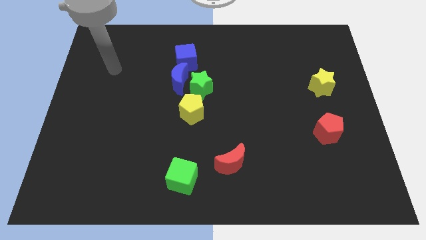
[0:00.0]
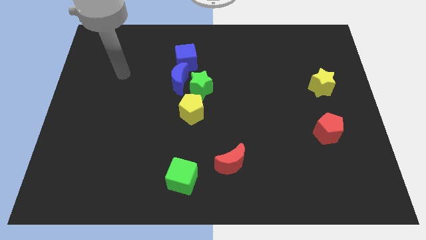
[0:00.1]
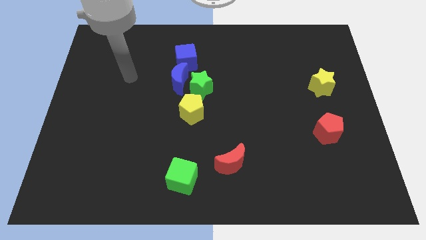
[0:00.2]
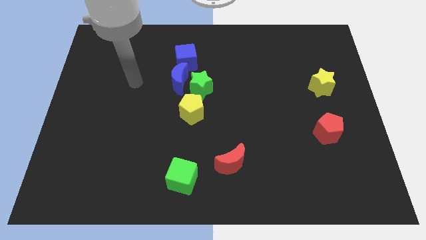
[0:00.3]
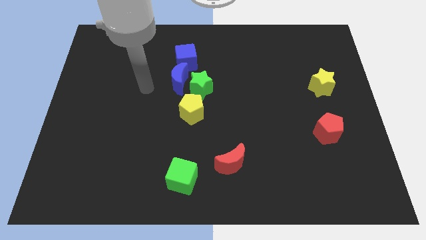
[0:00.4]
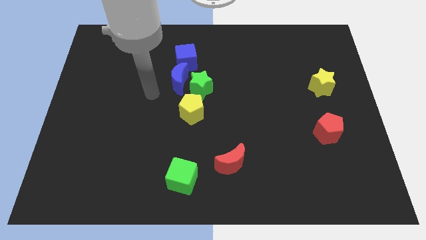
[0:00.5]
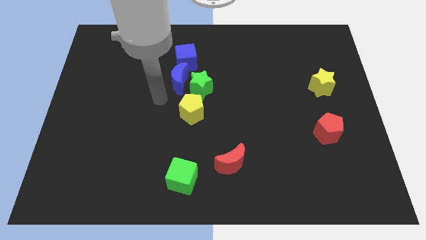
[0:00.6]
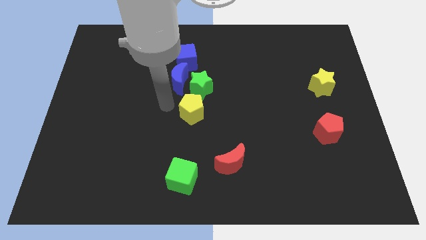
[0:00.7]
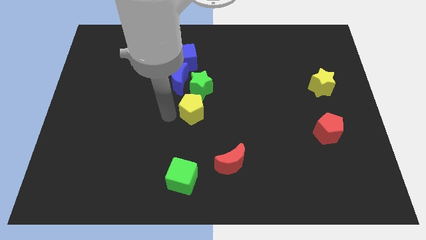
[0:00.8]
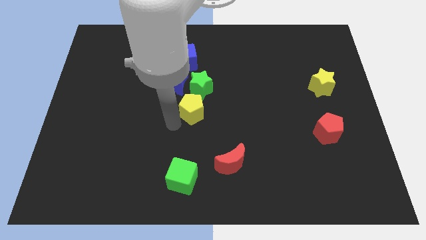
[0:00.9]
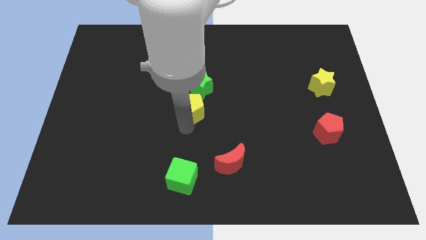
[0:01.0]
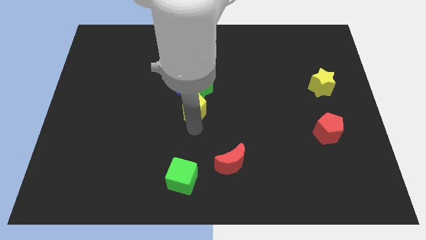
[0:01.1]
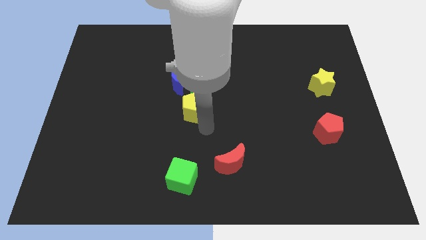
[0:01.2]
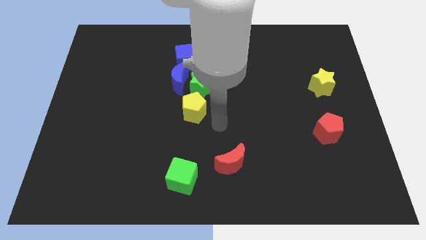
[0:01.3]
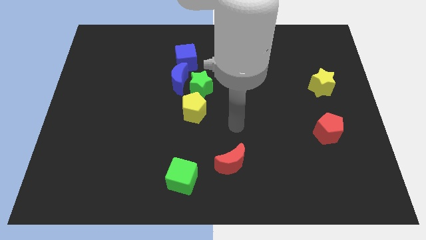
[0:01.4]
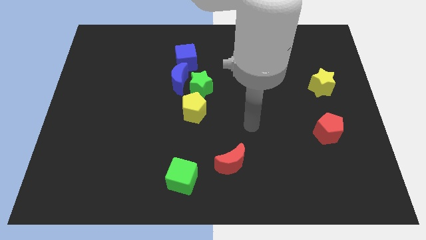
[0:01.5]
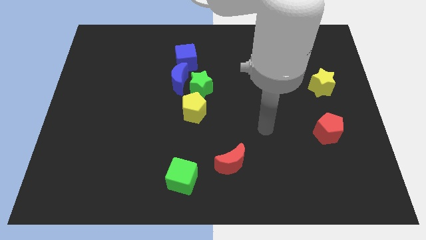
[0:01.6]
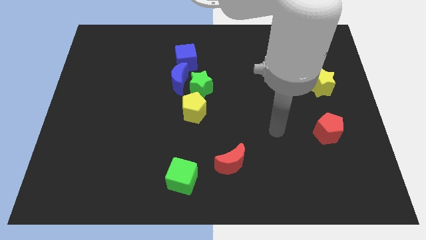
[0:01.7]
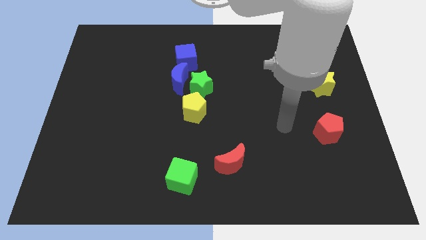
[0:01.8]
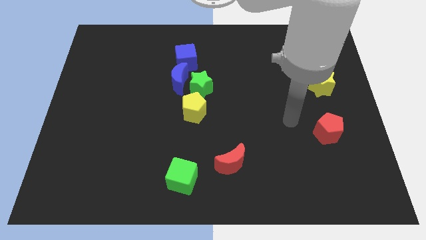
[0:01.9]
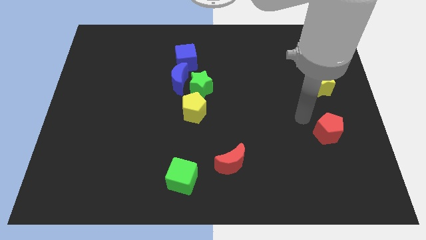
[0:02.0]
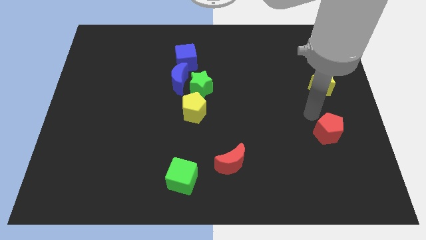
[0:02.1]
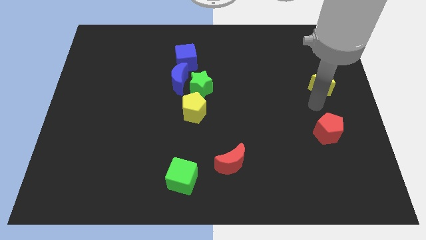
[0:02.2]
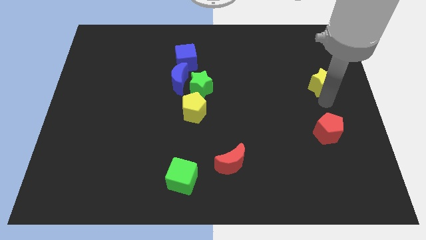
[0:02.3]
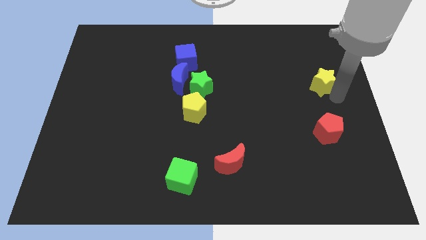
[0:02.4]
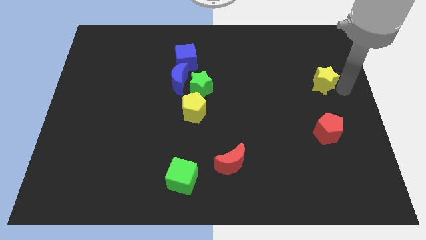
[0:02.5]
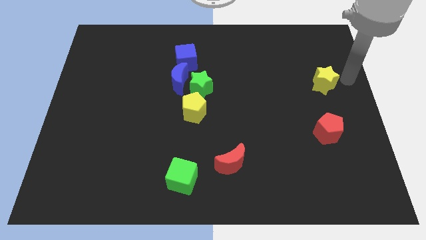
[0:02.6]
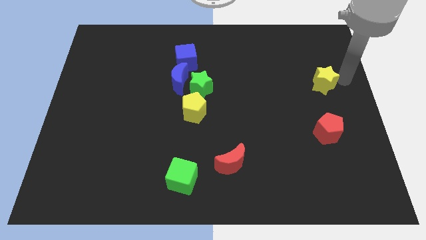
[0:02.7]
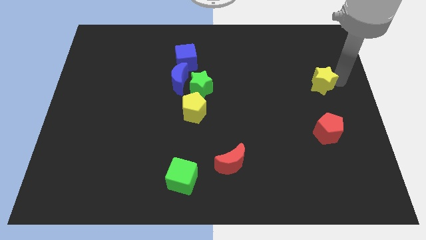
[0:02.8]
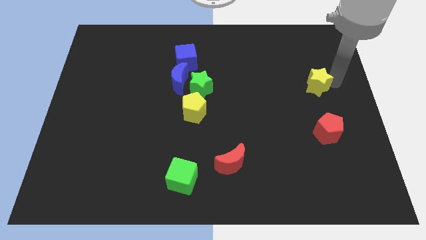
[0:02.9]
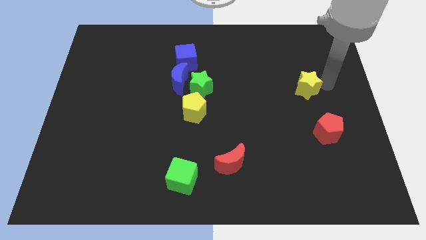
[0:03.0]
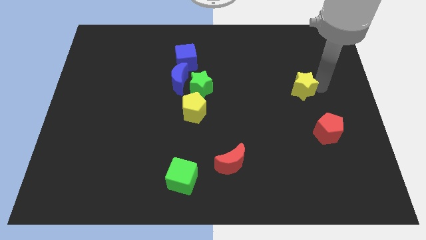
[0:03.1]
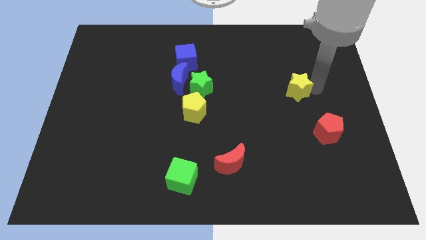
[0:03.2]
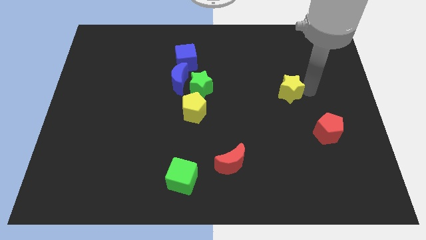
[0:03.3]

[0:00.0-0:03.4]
push the yellow star to the left slightly

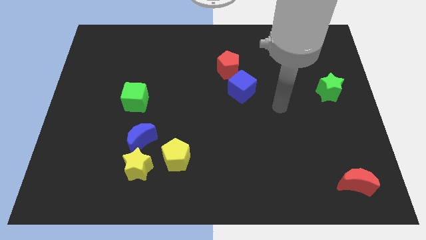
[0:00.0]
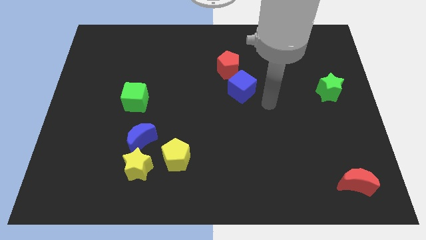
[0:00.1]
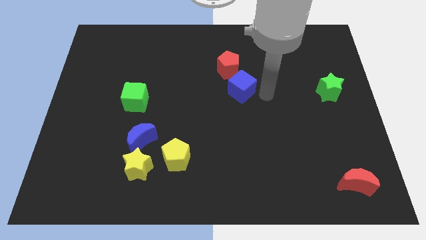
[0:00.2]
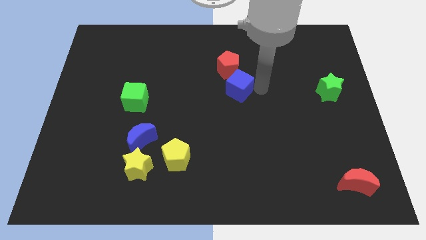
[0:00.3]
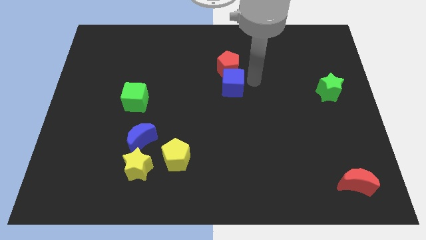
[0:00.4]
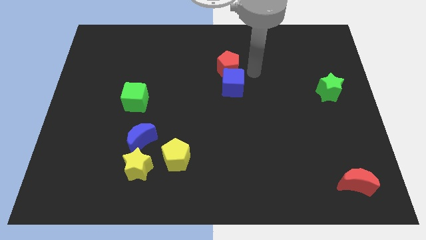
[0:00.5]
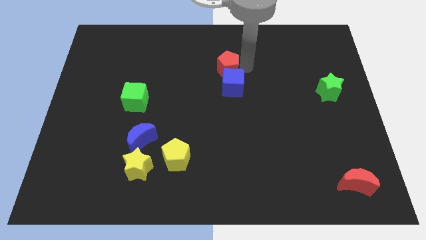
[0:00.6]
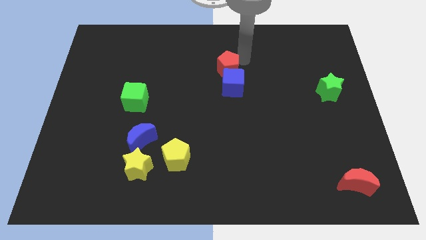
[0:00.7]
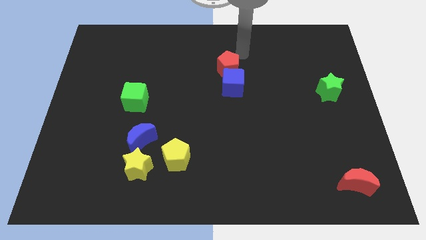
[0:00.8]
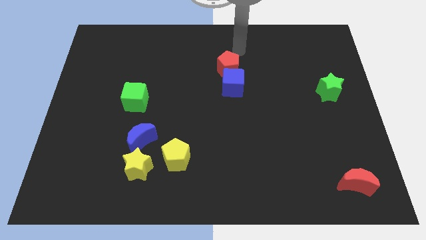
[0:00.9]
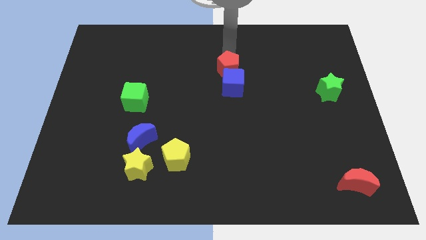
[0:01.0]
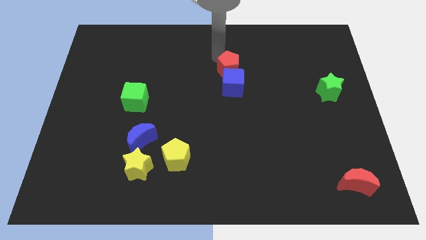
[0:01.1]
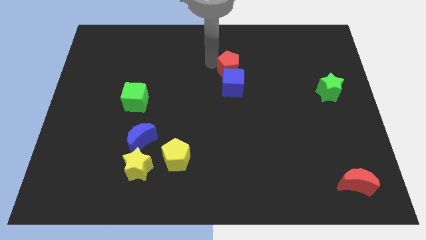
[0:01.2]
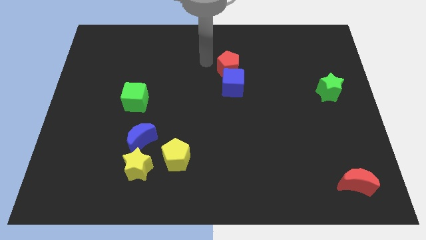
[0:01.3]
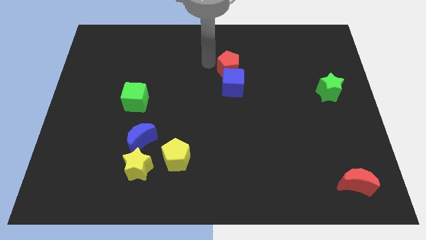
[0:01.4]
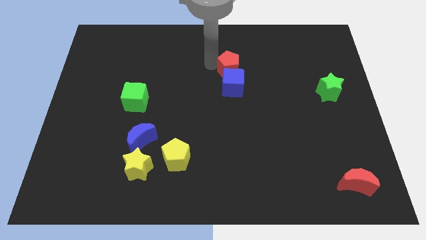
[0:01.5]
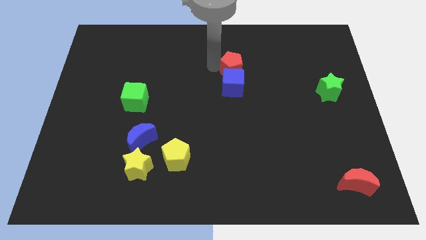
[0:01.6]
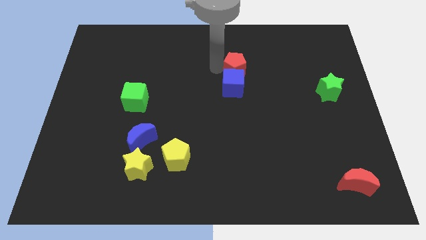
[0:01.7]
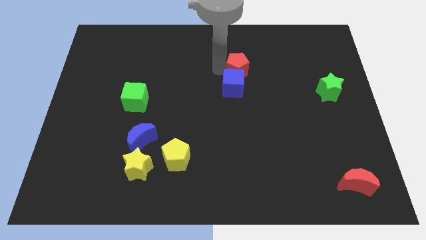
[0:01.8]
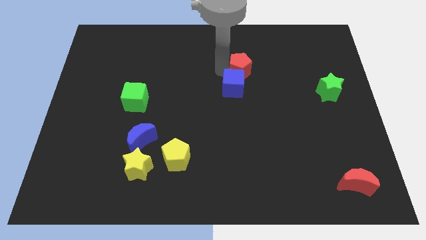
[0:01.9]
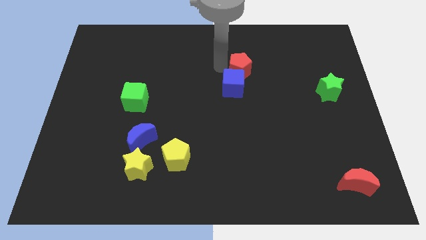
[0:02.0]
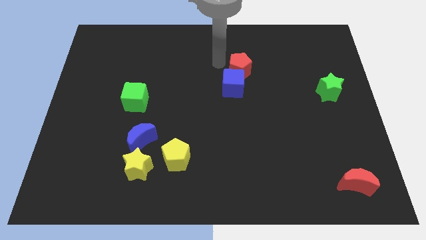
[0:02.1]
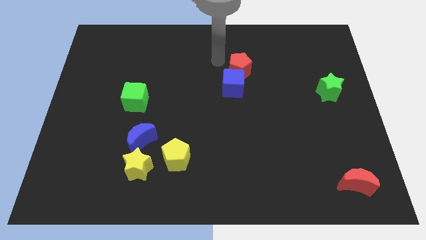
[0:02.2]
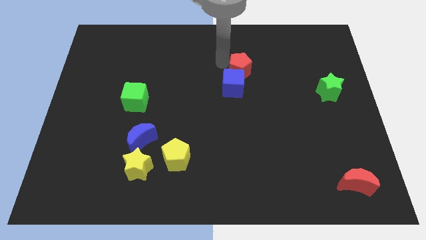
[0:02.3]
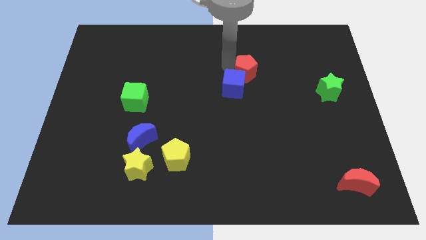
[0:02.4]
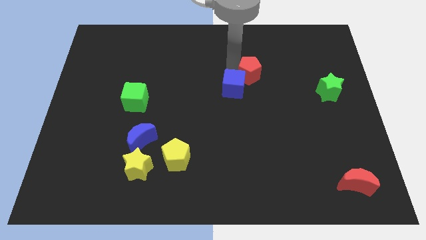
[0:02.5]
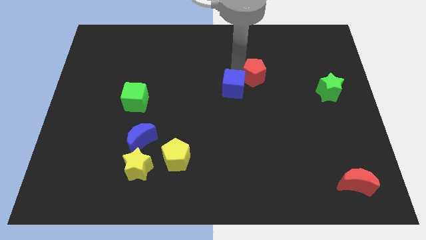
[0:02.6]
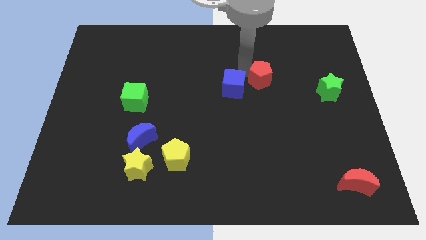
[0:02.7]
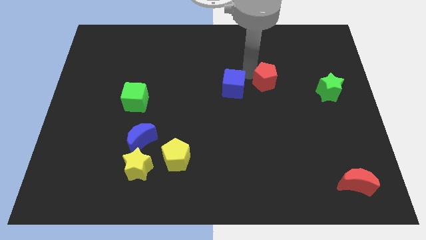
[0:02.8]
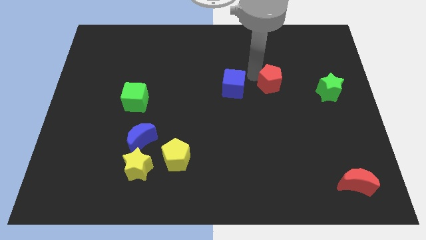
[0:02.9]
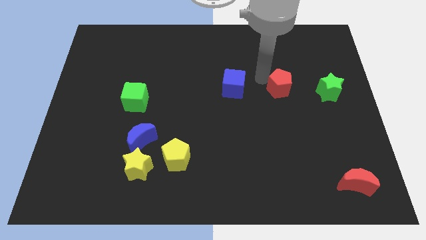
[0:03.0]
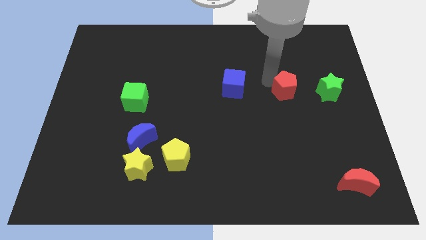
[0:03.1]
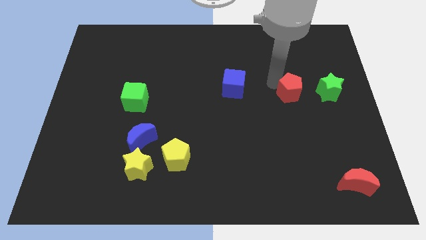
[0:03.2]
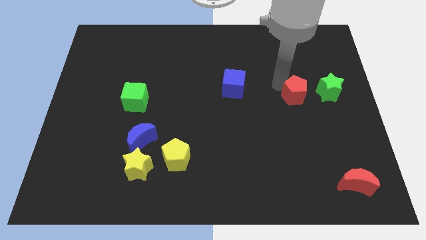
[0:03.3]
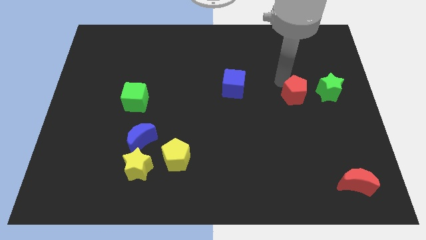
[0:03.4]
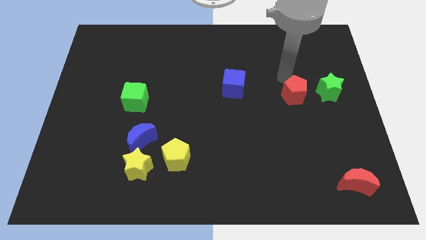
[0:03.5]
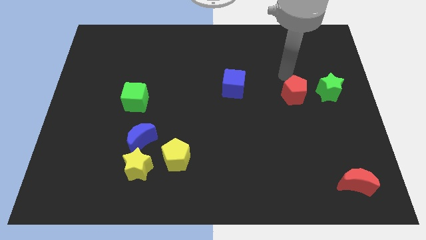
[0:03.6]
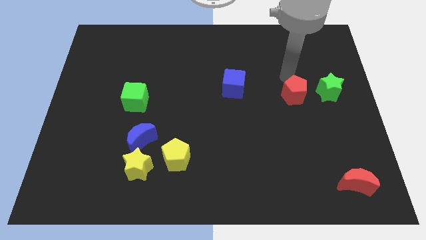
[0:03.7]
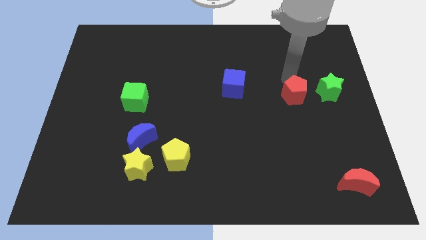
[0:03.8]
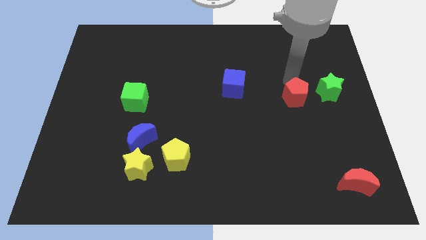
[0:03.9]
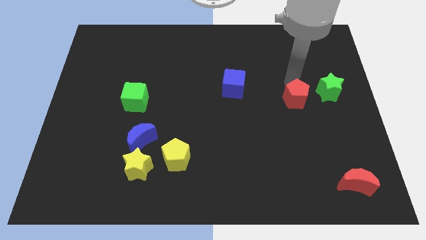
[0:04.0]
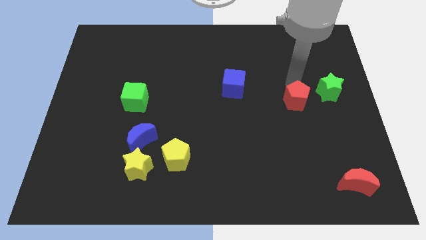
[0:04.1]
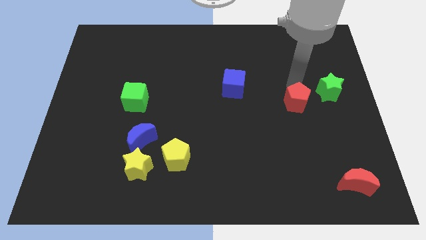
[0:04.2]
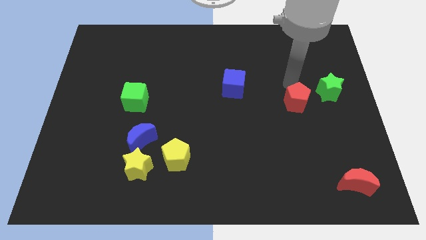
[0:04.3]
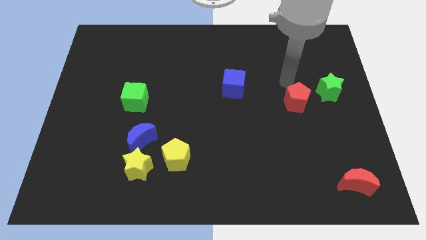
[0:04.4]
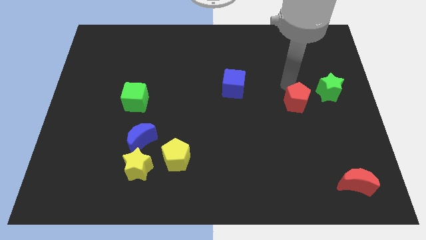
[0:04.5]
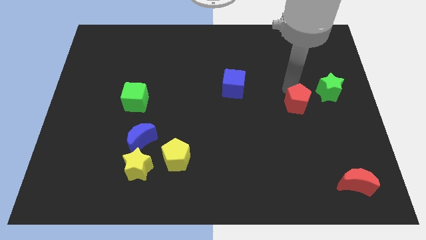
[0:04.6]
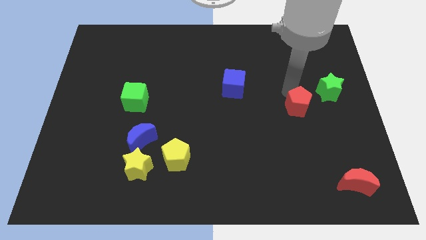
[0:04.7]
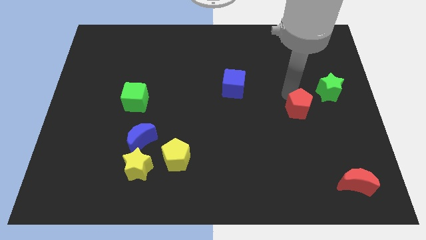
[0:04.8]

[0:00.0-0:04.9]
move the red pentagon downwards and right

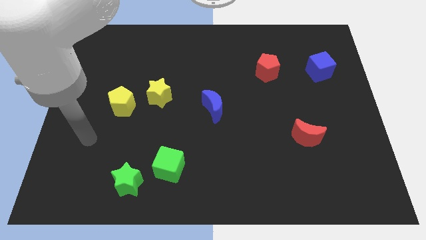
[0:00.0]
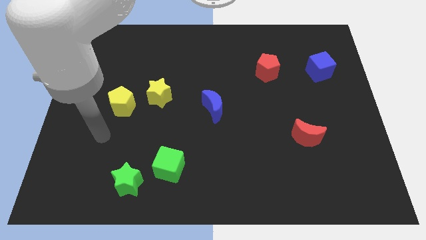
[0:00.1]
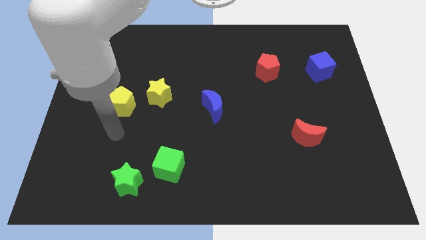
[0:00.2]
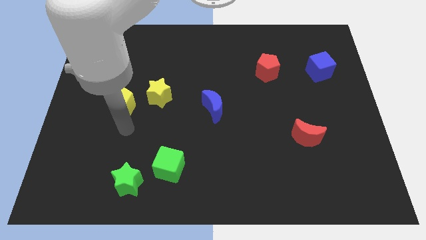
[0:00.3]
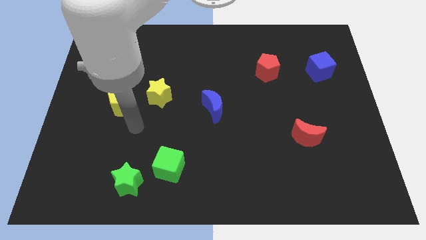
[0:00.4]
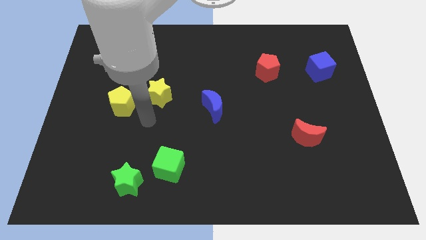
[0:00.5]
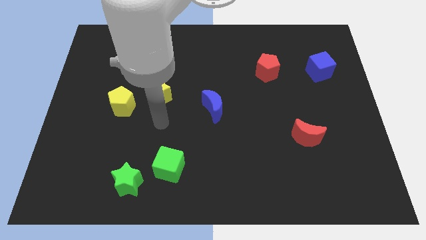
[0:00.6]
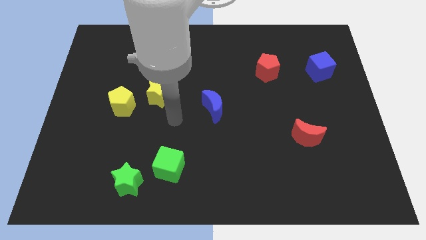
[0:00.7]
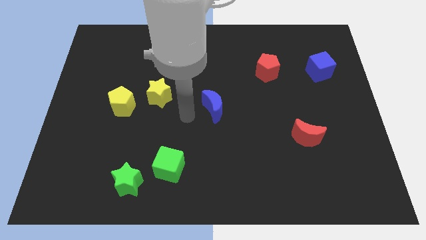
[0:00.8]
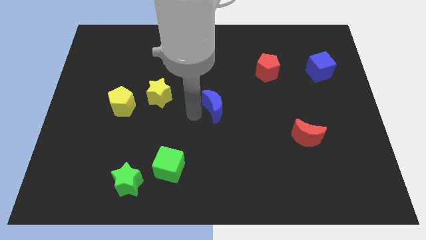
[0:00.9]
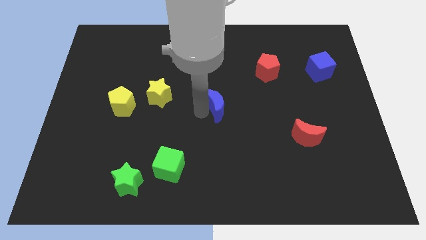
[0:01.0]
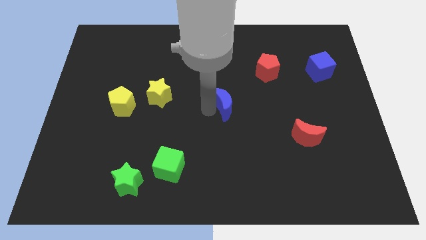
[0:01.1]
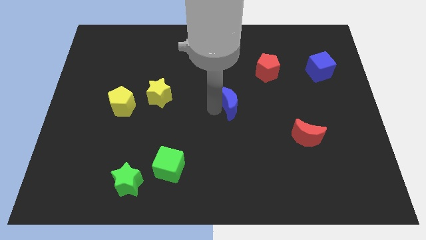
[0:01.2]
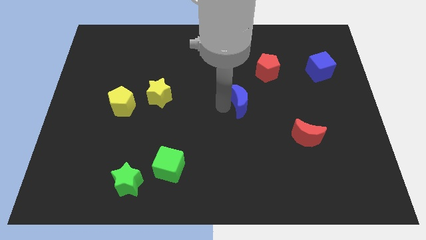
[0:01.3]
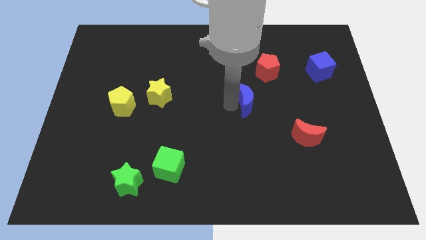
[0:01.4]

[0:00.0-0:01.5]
slightly push the blue moon to the right
